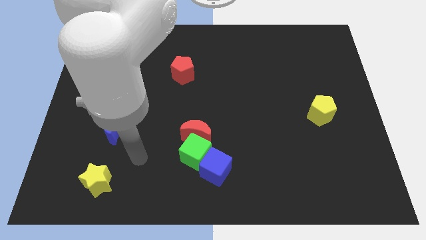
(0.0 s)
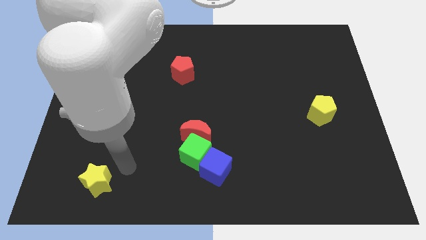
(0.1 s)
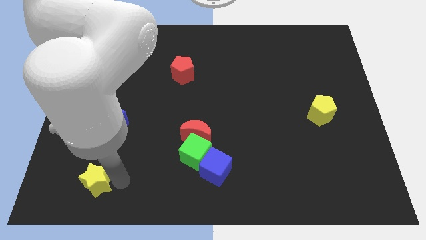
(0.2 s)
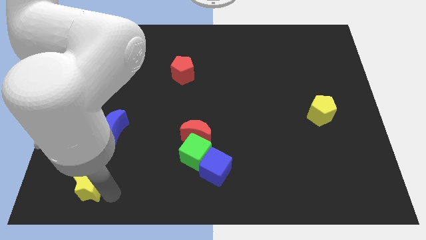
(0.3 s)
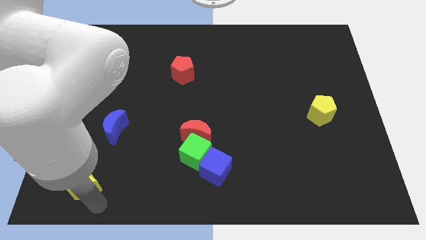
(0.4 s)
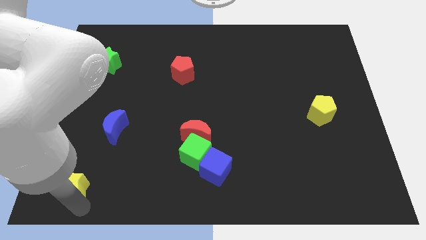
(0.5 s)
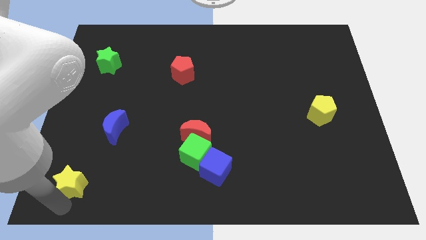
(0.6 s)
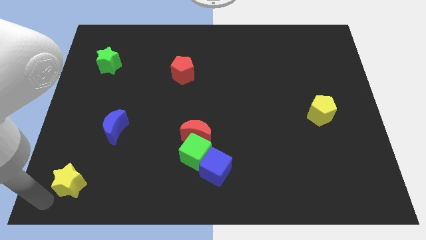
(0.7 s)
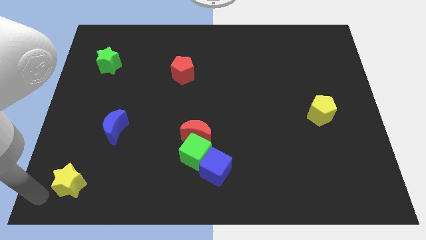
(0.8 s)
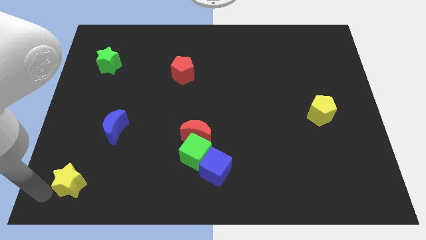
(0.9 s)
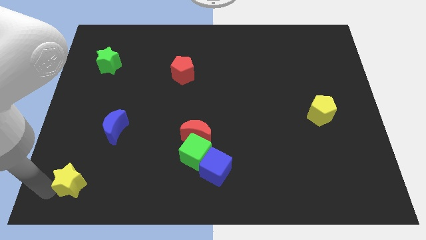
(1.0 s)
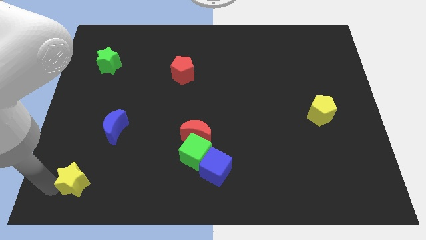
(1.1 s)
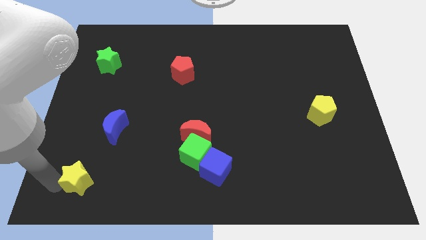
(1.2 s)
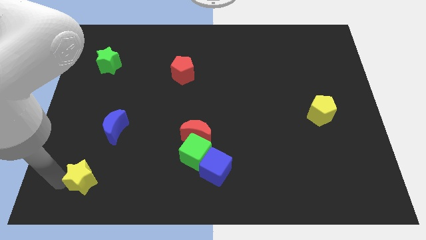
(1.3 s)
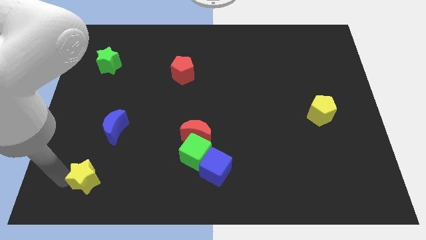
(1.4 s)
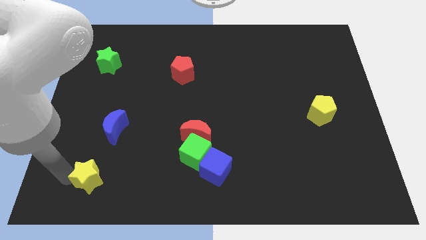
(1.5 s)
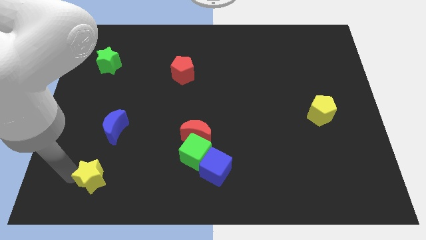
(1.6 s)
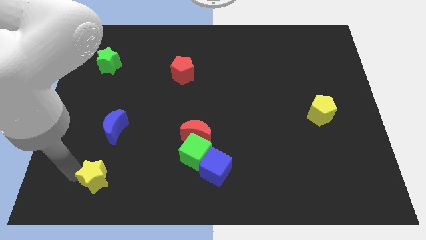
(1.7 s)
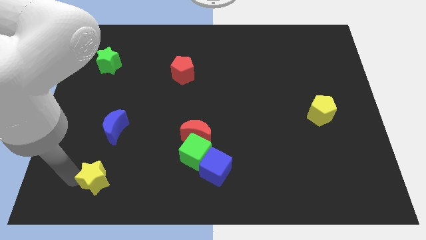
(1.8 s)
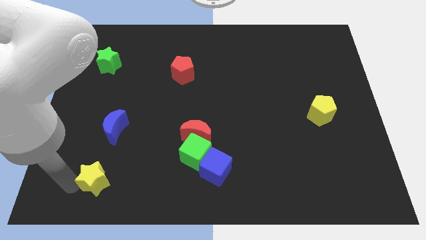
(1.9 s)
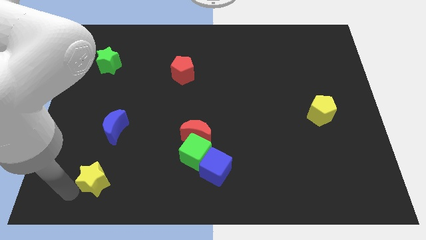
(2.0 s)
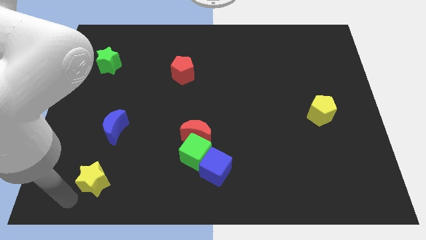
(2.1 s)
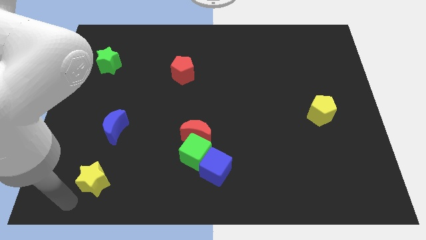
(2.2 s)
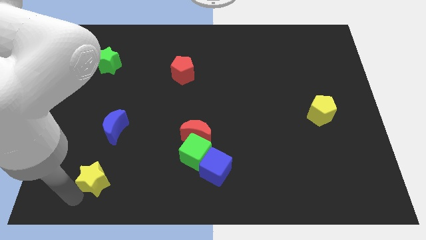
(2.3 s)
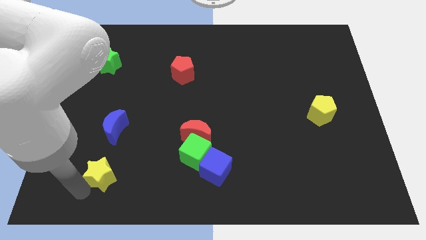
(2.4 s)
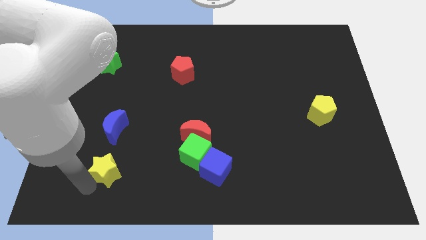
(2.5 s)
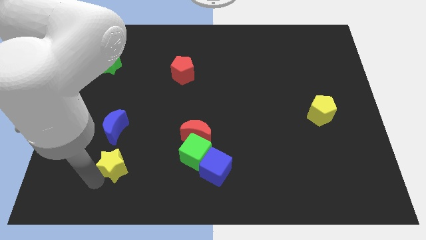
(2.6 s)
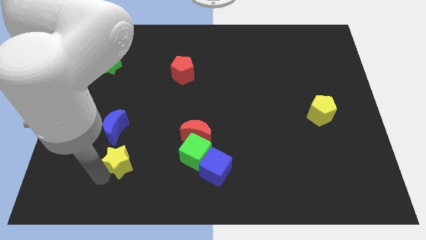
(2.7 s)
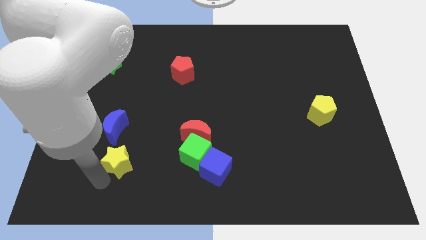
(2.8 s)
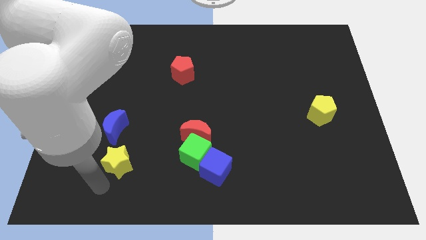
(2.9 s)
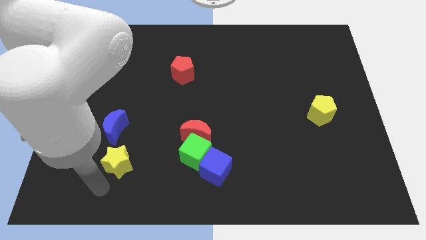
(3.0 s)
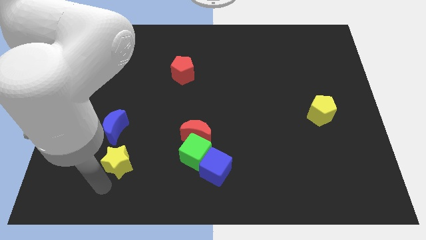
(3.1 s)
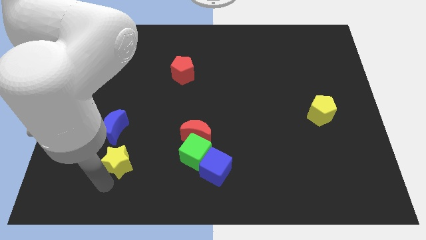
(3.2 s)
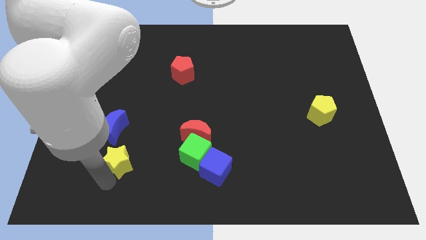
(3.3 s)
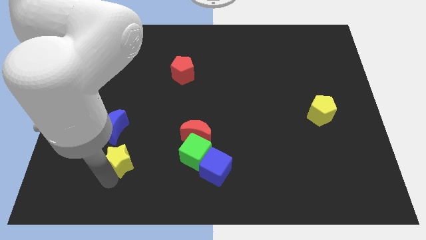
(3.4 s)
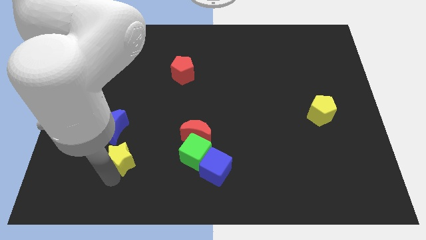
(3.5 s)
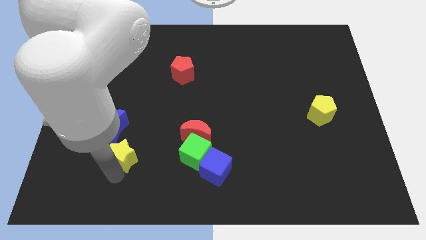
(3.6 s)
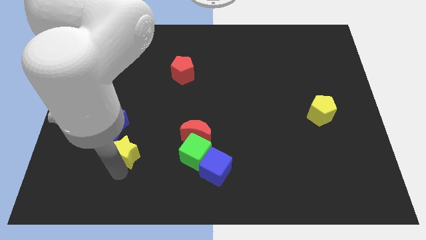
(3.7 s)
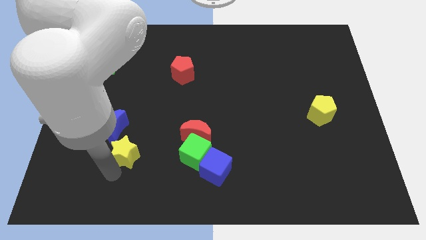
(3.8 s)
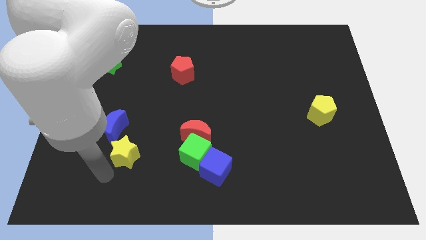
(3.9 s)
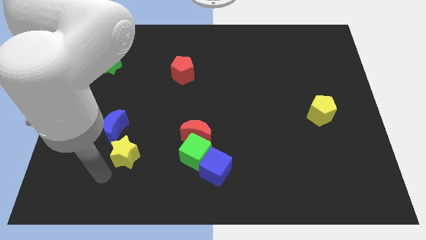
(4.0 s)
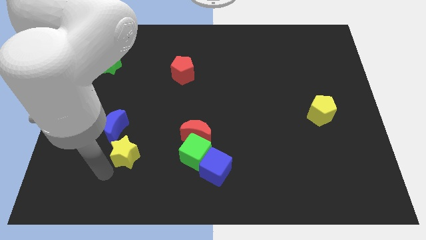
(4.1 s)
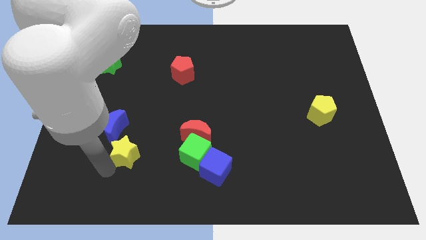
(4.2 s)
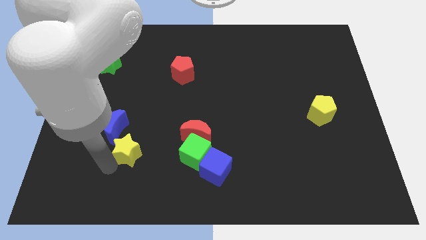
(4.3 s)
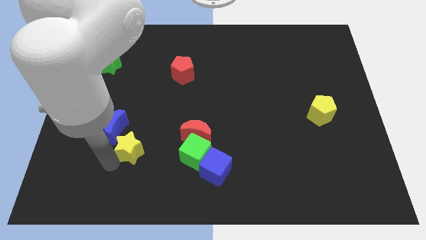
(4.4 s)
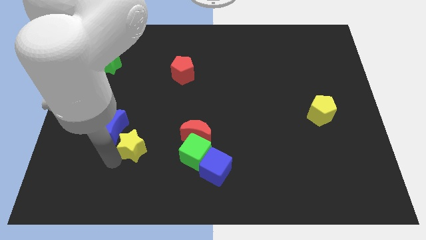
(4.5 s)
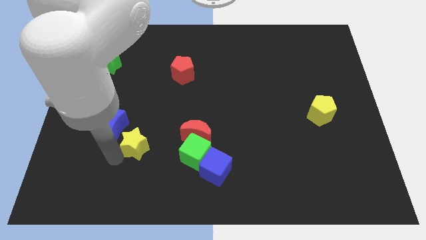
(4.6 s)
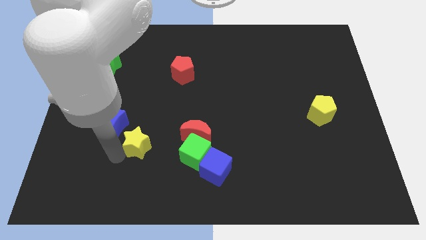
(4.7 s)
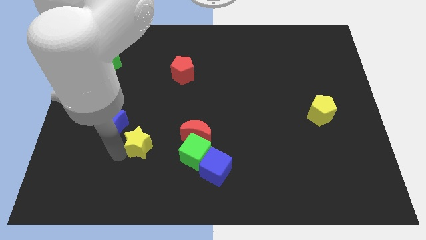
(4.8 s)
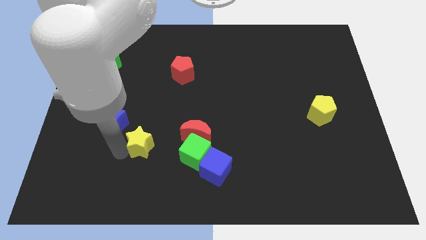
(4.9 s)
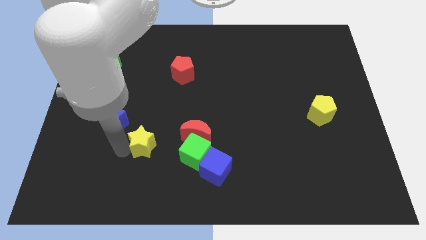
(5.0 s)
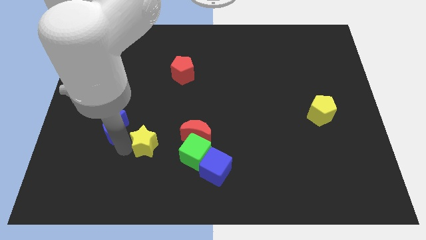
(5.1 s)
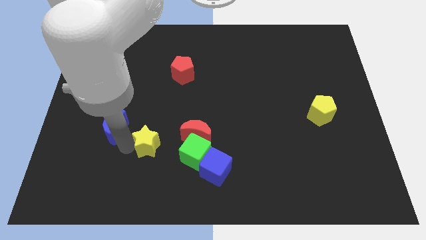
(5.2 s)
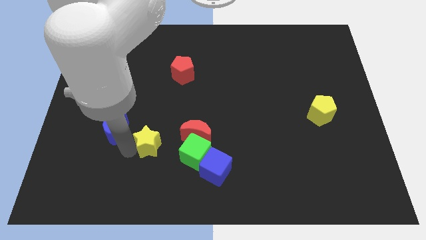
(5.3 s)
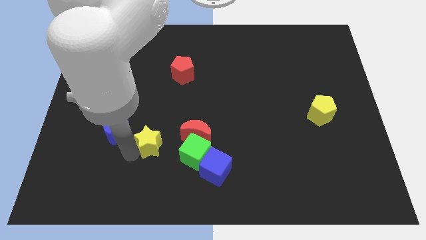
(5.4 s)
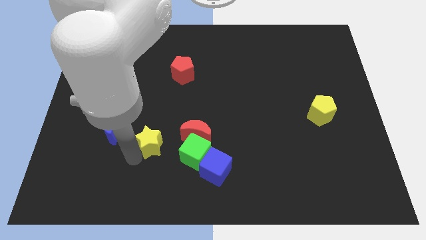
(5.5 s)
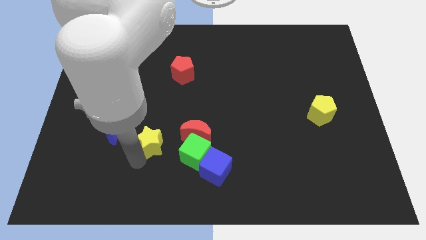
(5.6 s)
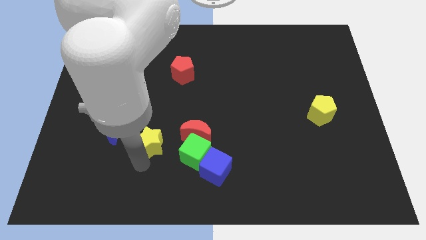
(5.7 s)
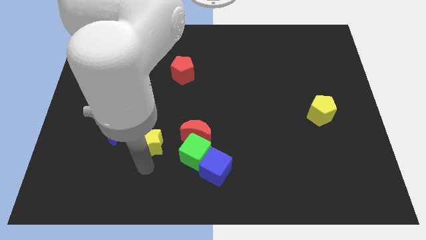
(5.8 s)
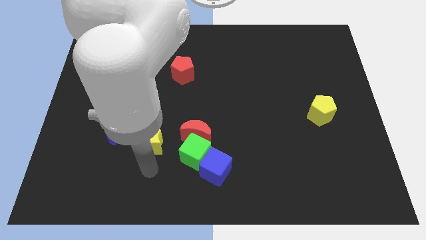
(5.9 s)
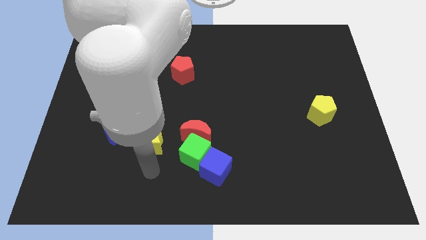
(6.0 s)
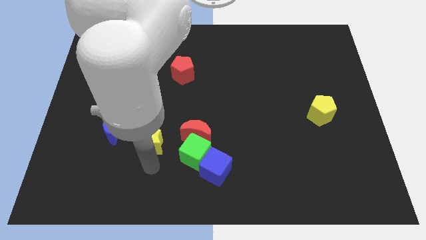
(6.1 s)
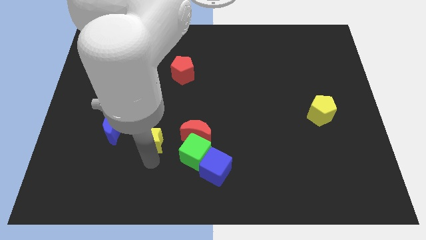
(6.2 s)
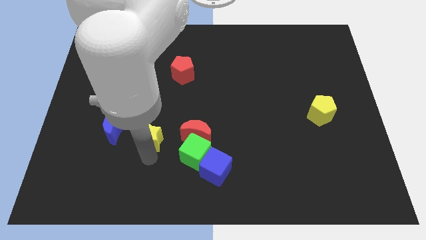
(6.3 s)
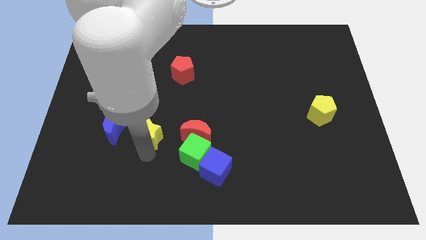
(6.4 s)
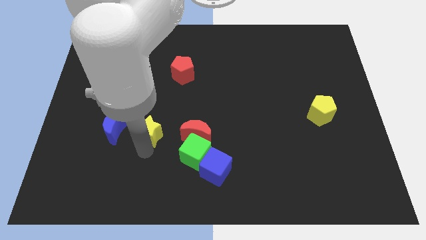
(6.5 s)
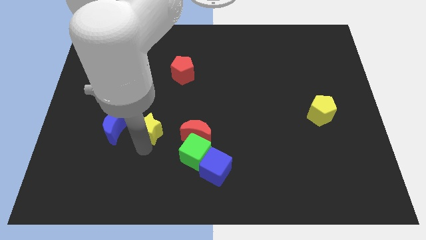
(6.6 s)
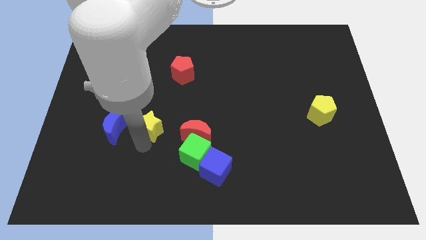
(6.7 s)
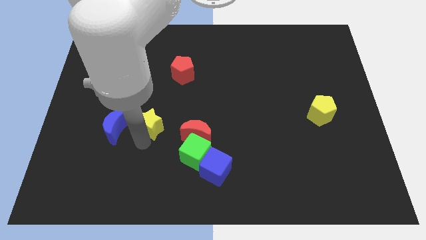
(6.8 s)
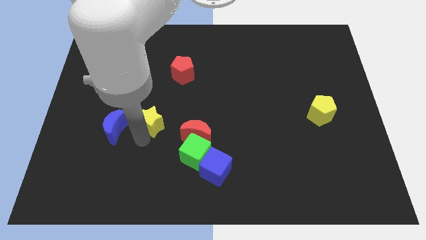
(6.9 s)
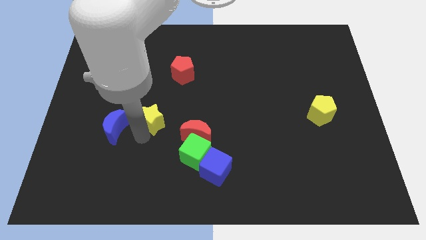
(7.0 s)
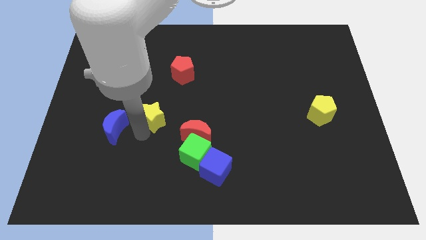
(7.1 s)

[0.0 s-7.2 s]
push the yellow star to the top left of the red moon
